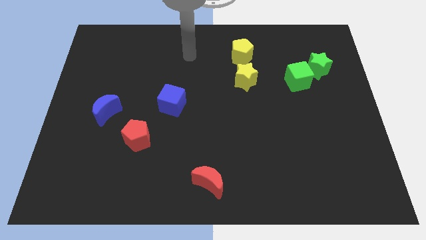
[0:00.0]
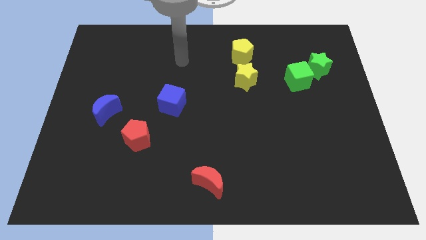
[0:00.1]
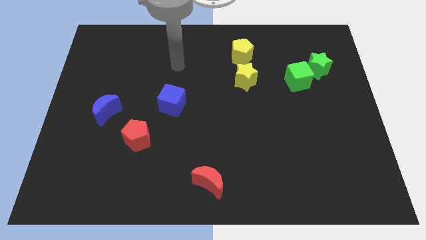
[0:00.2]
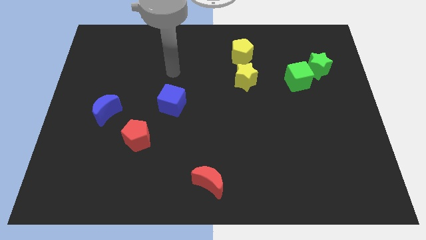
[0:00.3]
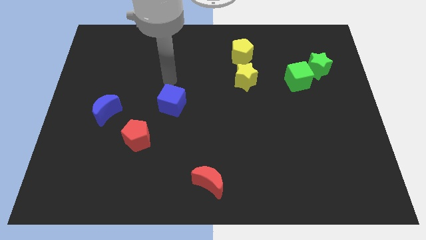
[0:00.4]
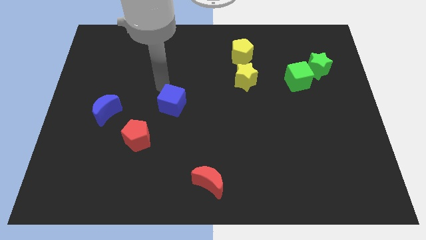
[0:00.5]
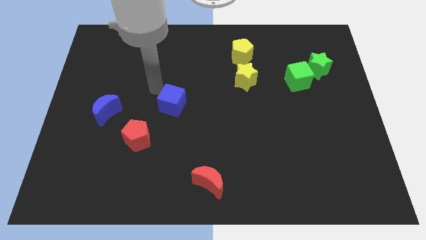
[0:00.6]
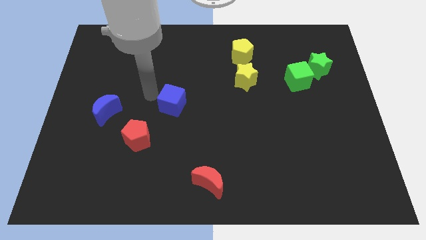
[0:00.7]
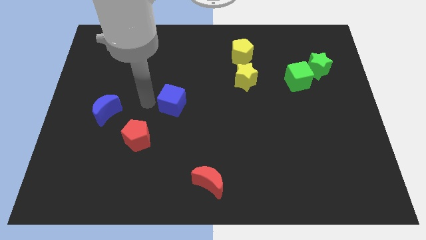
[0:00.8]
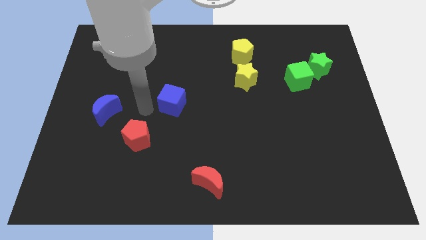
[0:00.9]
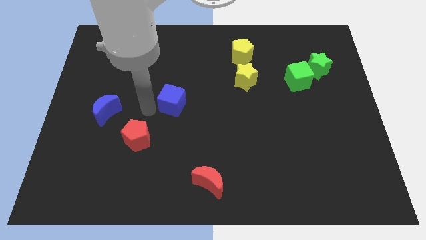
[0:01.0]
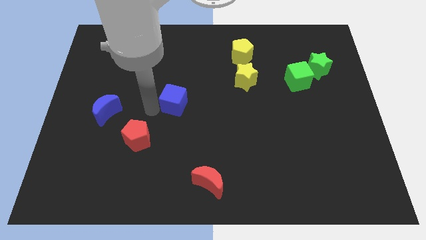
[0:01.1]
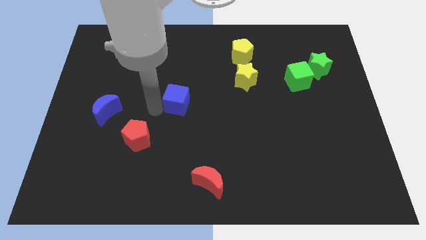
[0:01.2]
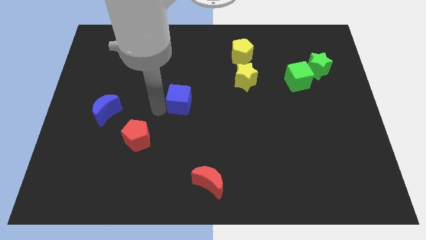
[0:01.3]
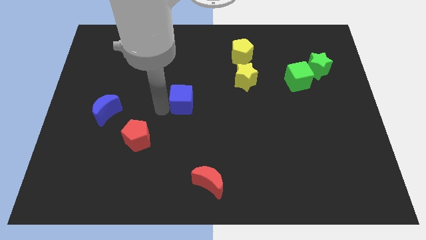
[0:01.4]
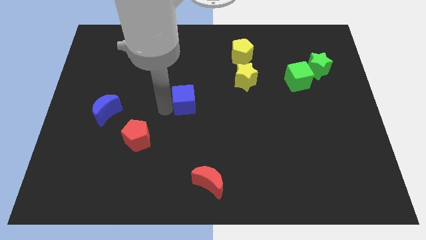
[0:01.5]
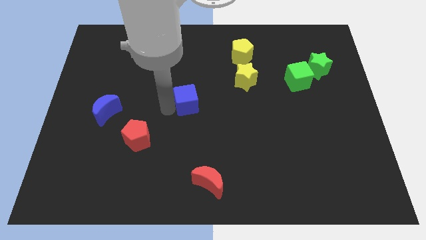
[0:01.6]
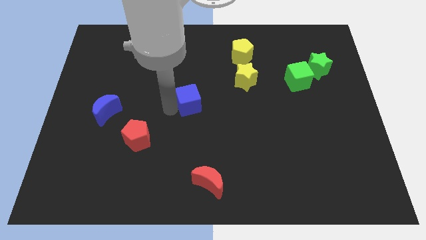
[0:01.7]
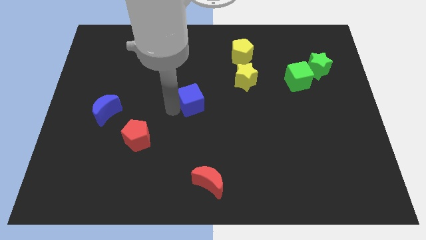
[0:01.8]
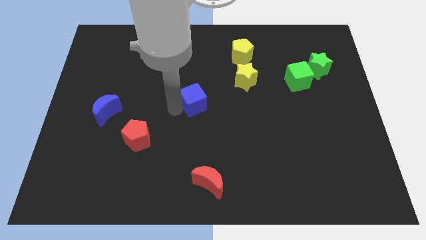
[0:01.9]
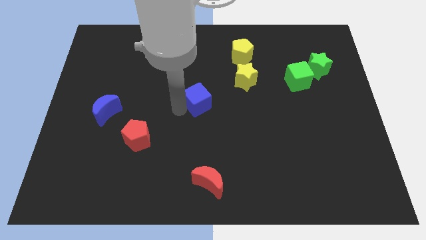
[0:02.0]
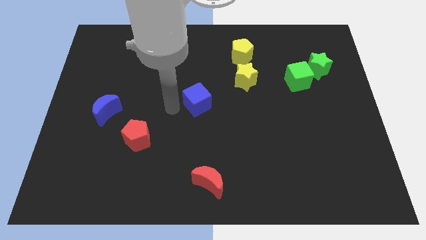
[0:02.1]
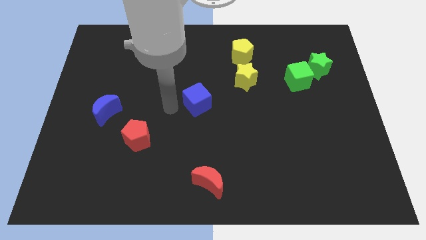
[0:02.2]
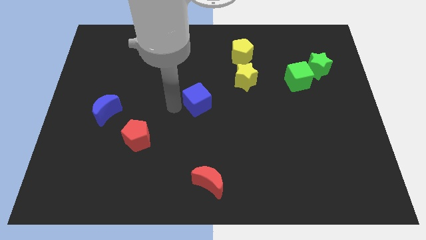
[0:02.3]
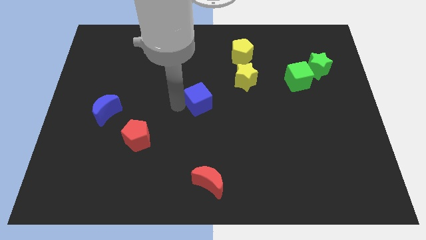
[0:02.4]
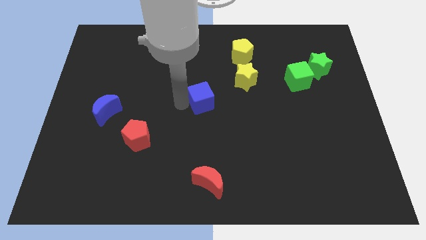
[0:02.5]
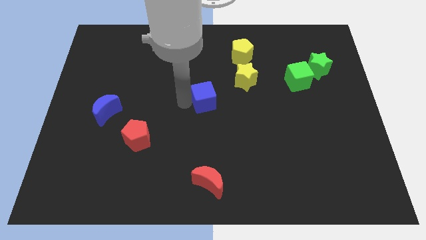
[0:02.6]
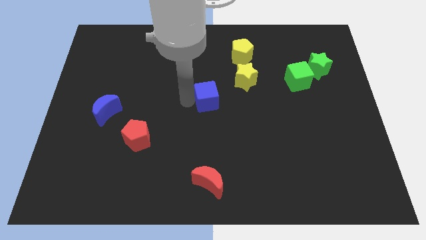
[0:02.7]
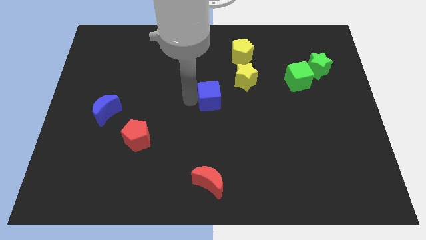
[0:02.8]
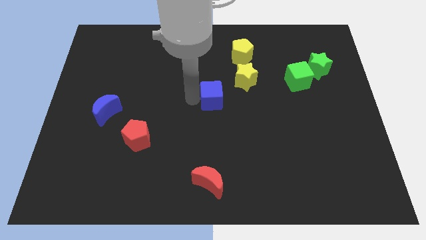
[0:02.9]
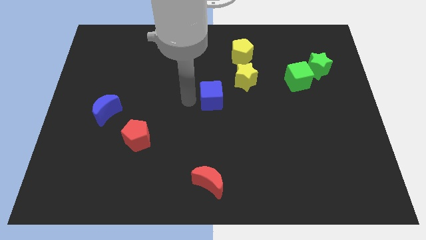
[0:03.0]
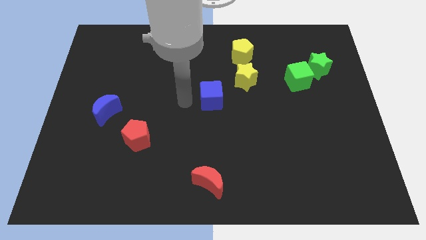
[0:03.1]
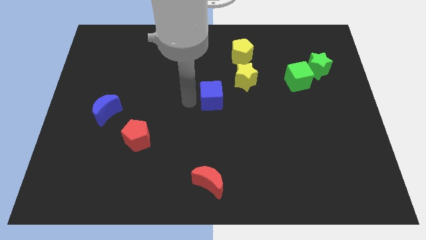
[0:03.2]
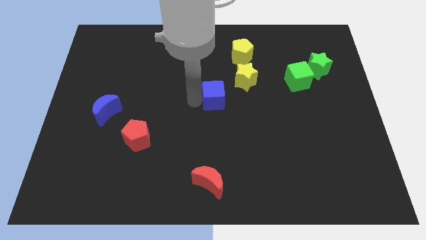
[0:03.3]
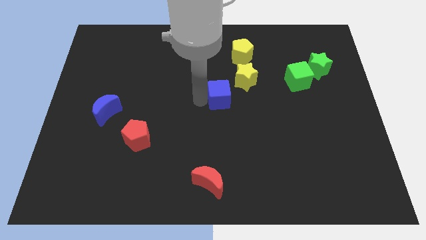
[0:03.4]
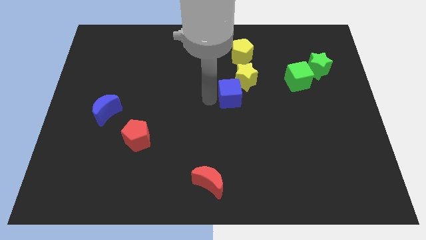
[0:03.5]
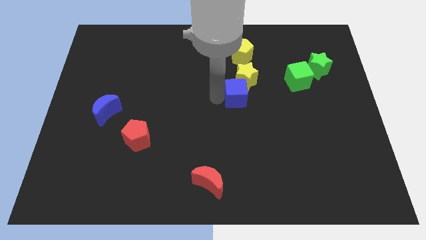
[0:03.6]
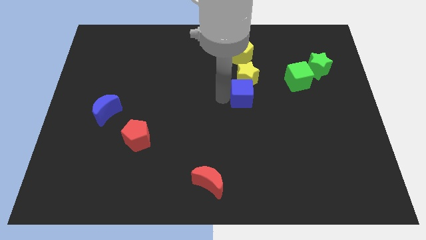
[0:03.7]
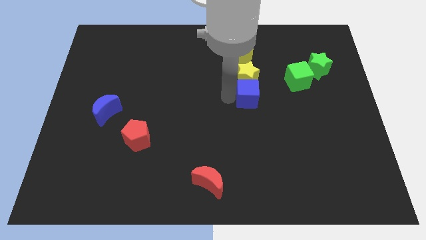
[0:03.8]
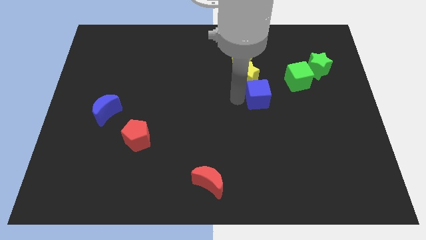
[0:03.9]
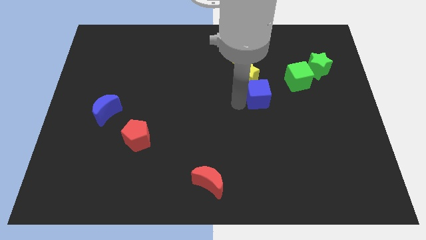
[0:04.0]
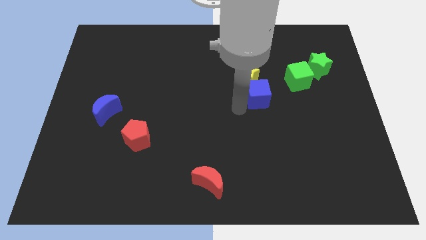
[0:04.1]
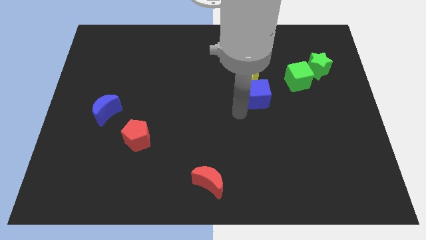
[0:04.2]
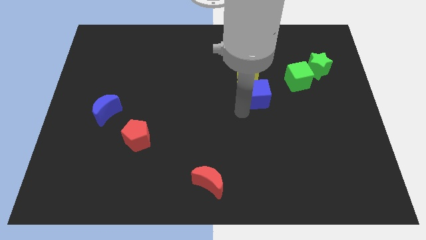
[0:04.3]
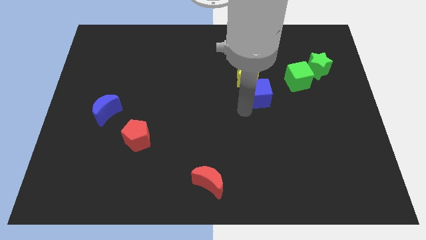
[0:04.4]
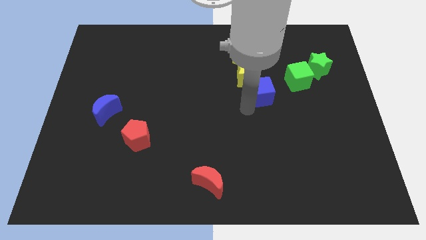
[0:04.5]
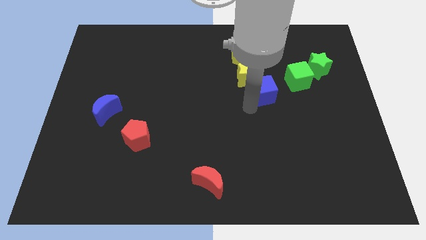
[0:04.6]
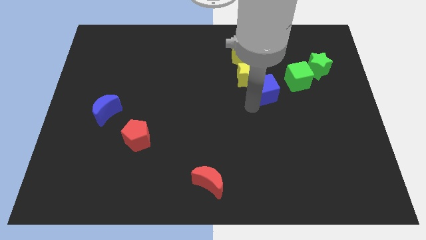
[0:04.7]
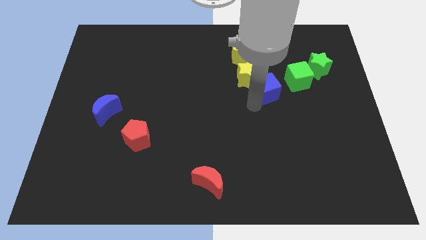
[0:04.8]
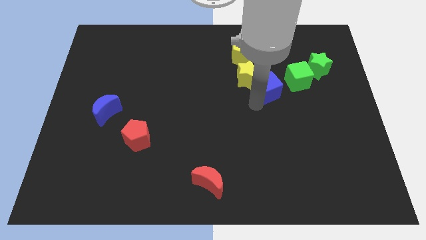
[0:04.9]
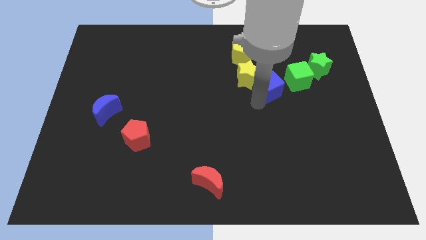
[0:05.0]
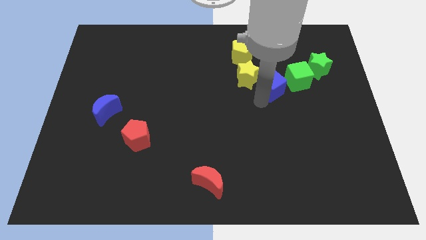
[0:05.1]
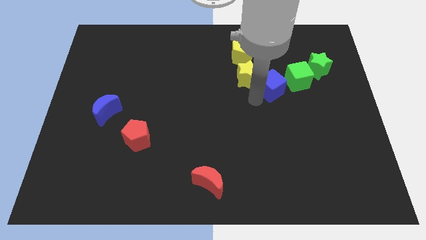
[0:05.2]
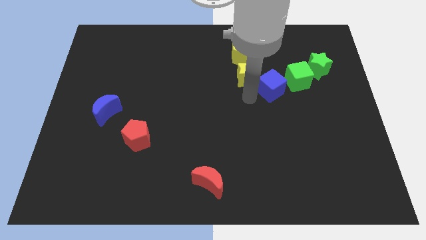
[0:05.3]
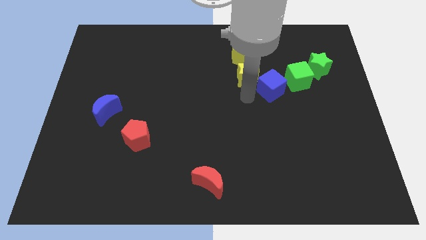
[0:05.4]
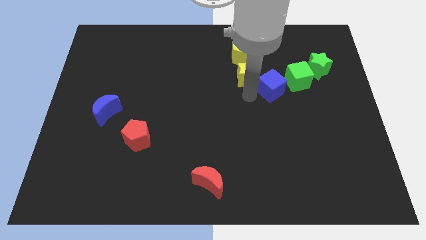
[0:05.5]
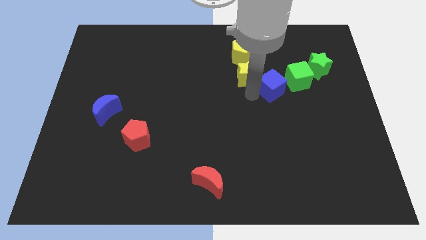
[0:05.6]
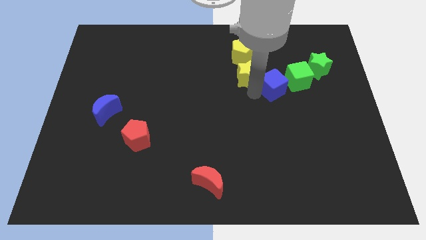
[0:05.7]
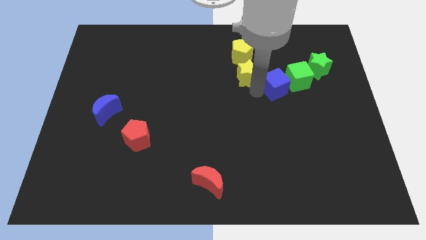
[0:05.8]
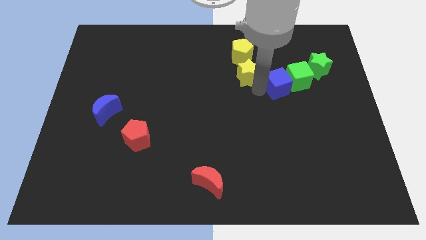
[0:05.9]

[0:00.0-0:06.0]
push the blue cube close to the green cube

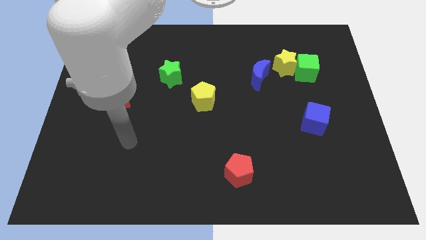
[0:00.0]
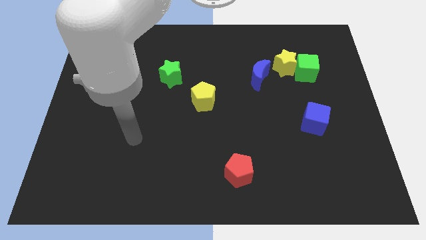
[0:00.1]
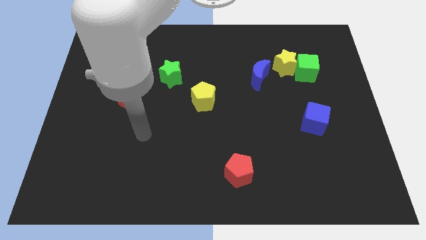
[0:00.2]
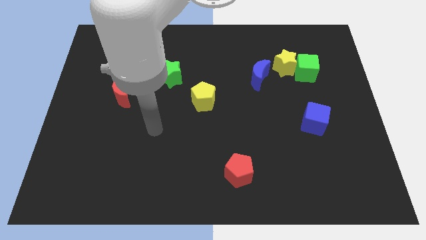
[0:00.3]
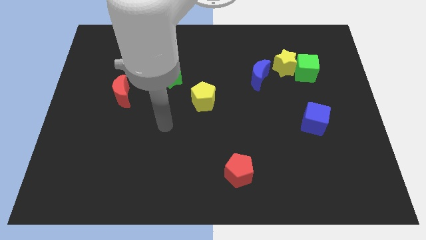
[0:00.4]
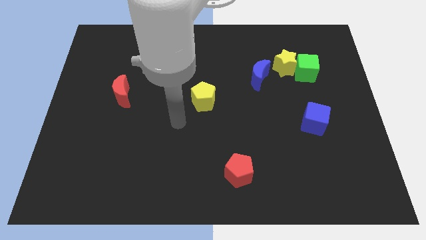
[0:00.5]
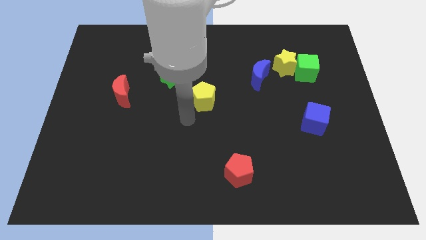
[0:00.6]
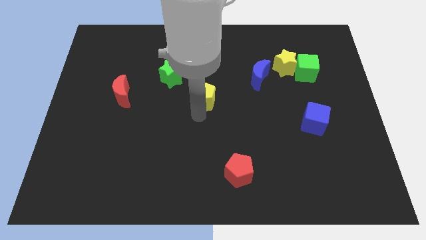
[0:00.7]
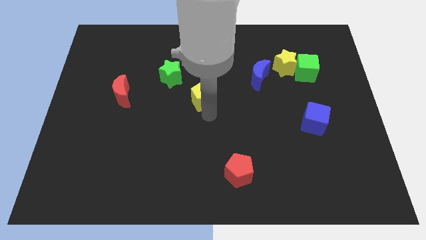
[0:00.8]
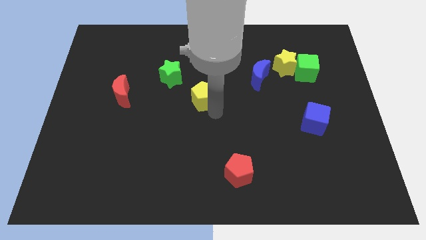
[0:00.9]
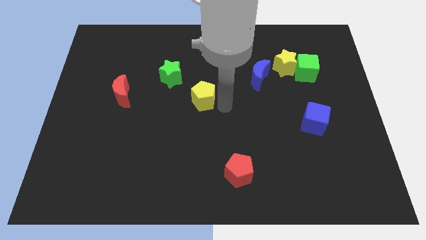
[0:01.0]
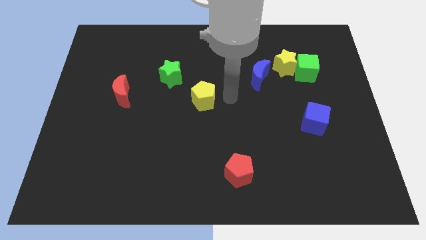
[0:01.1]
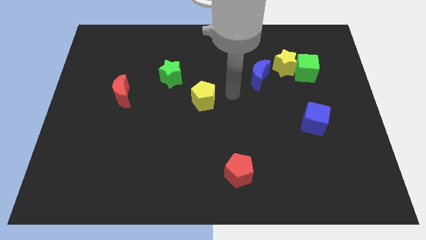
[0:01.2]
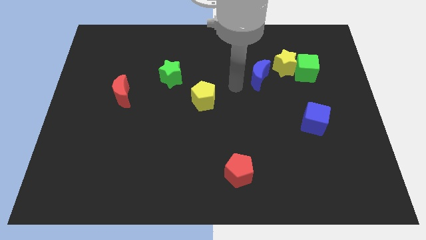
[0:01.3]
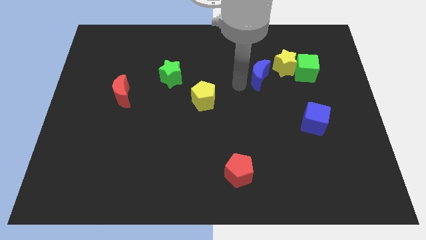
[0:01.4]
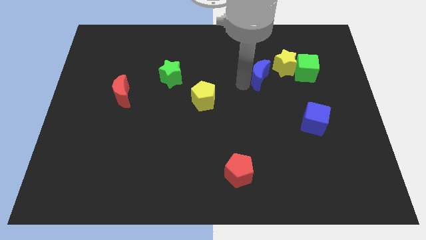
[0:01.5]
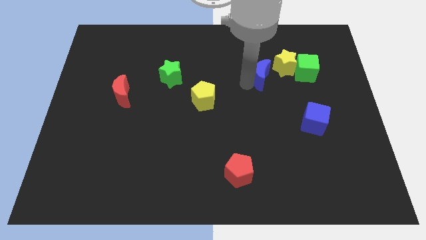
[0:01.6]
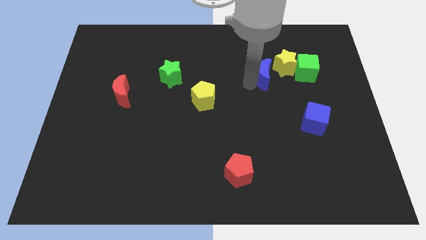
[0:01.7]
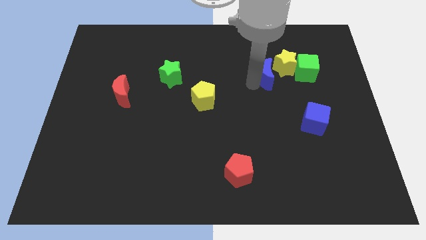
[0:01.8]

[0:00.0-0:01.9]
push the blue moon towards the yellow star

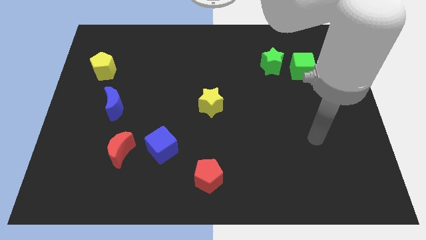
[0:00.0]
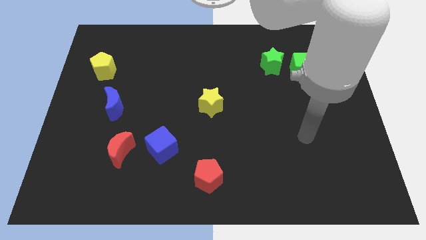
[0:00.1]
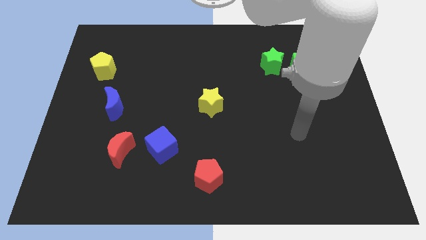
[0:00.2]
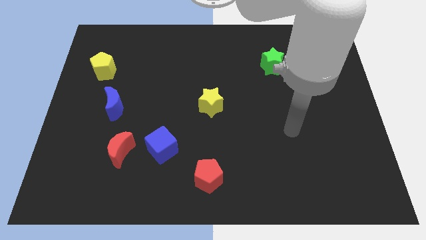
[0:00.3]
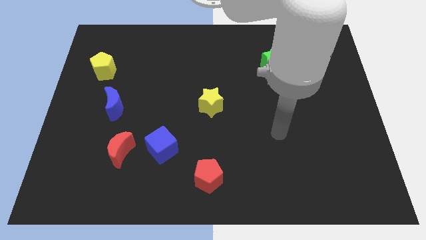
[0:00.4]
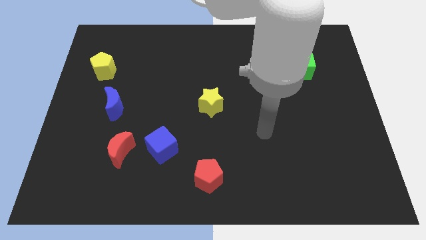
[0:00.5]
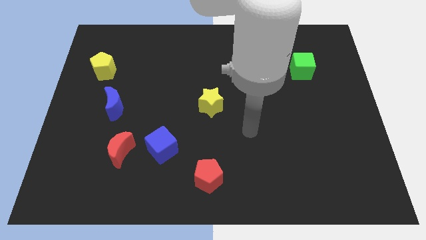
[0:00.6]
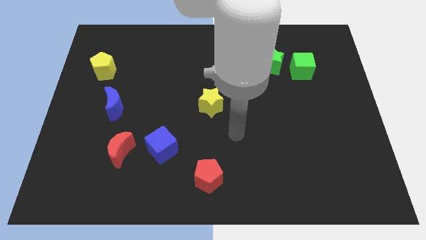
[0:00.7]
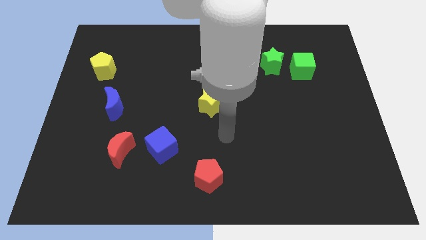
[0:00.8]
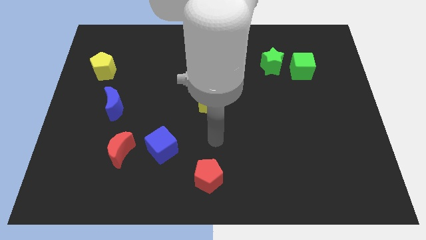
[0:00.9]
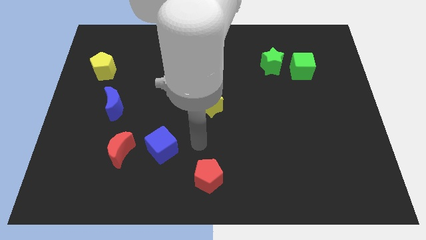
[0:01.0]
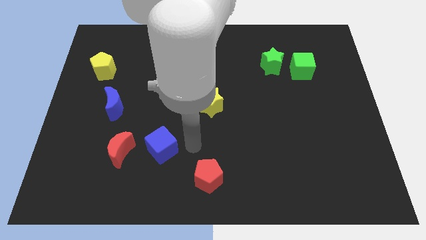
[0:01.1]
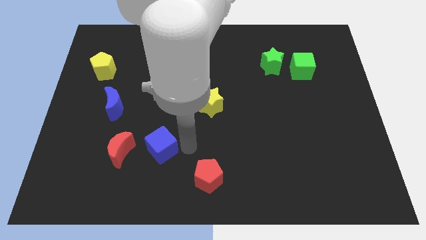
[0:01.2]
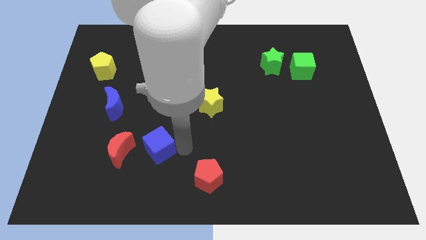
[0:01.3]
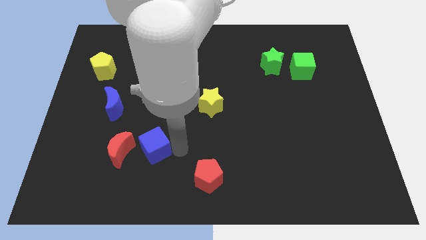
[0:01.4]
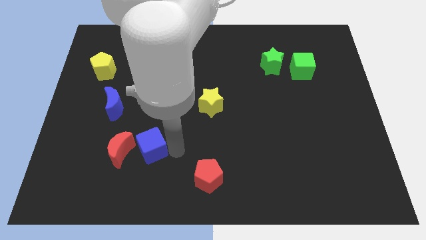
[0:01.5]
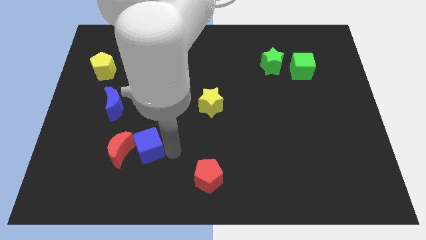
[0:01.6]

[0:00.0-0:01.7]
move the blue cube next to the red moon
